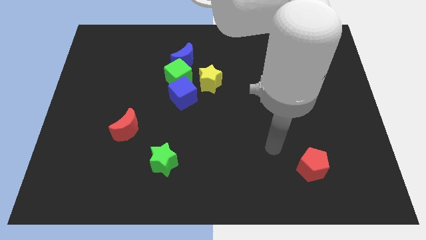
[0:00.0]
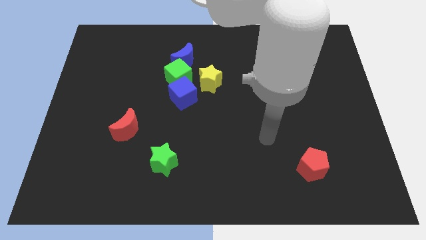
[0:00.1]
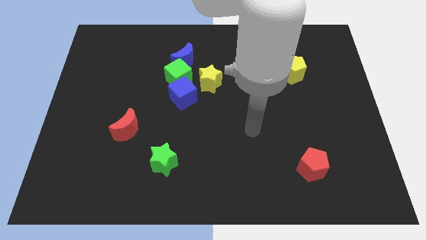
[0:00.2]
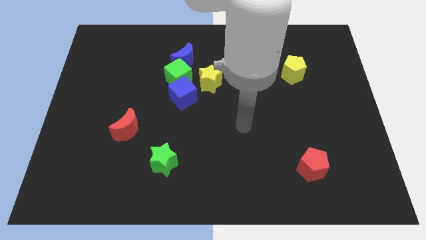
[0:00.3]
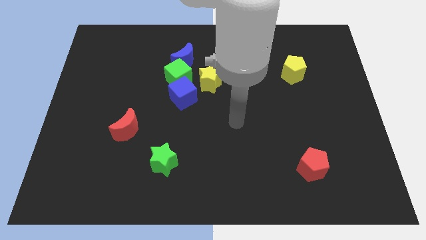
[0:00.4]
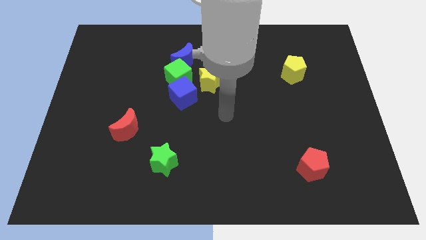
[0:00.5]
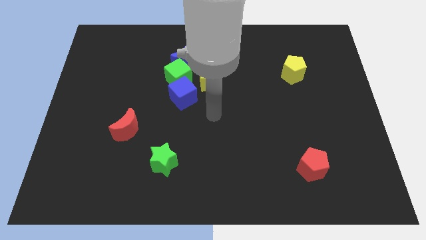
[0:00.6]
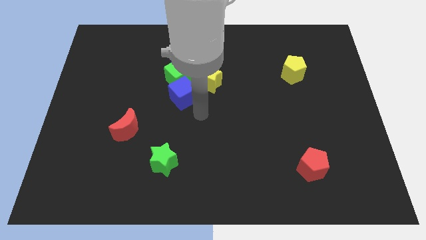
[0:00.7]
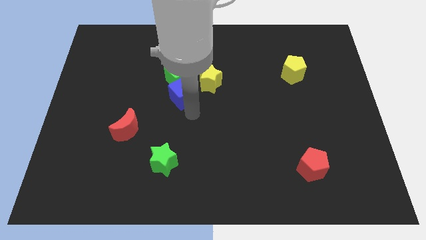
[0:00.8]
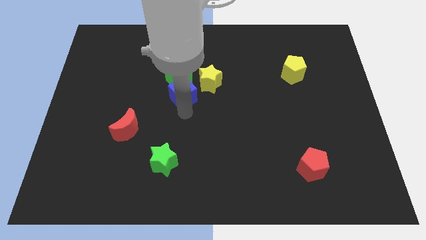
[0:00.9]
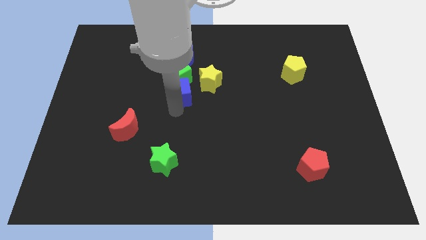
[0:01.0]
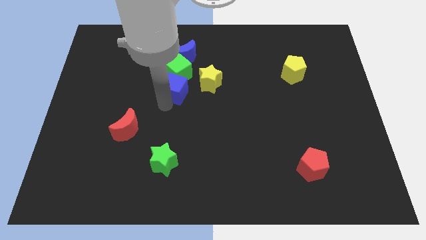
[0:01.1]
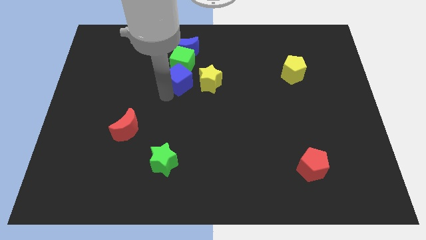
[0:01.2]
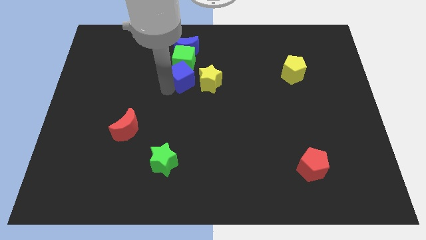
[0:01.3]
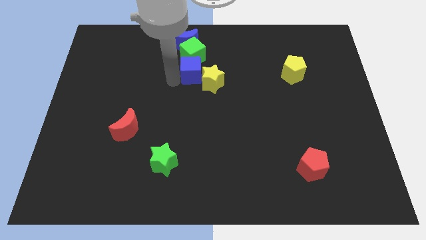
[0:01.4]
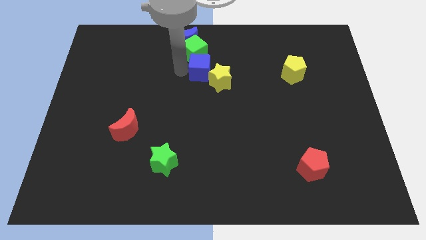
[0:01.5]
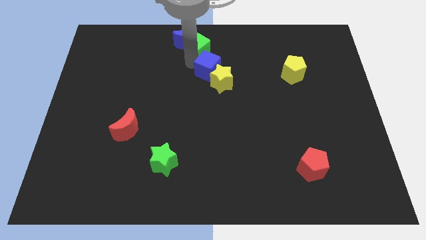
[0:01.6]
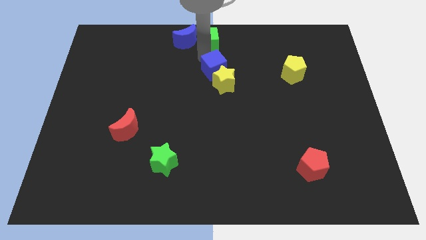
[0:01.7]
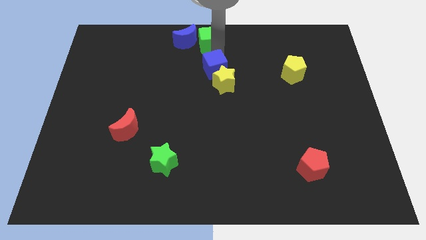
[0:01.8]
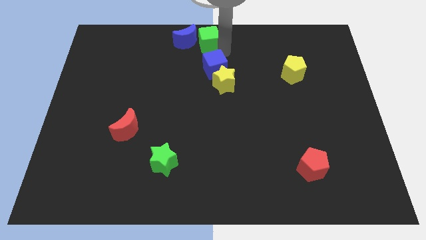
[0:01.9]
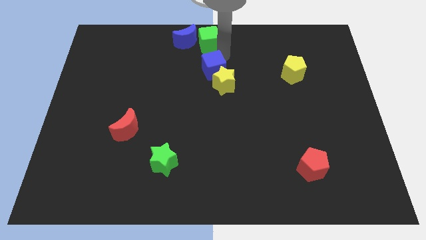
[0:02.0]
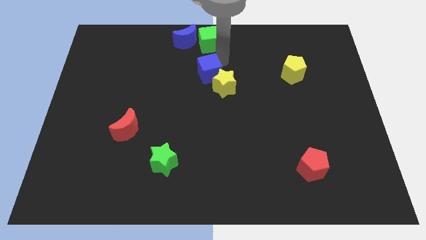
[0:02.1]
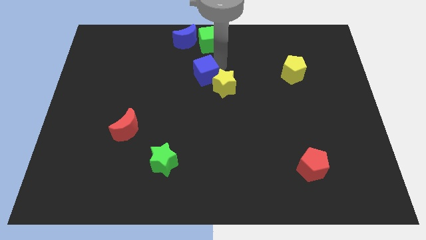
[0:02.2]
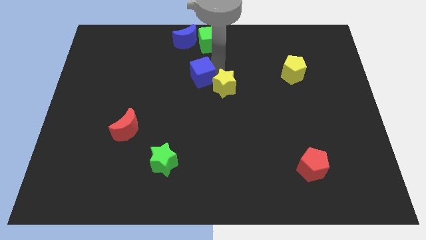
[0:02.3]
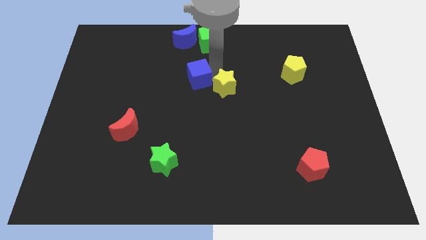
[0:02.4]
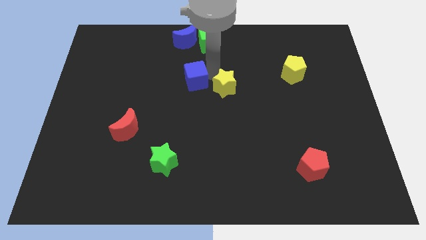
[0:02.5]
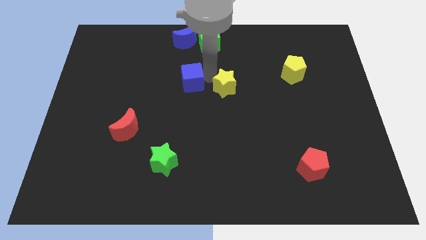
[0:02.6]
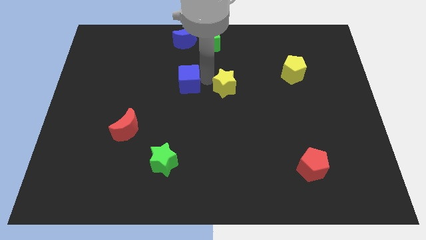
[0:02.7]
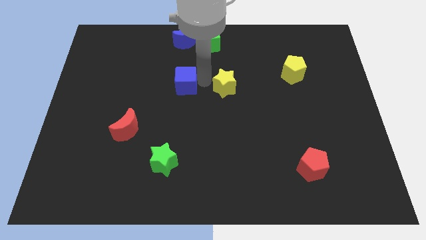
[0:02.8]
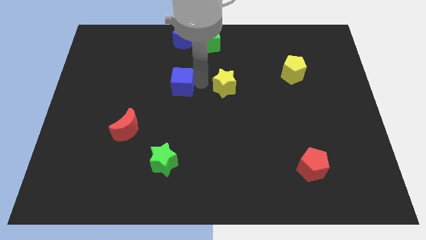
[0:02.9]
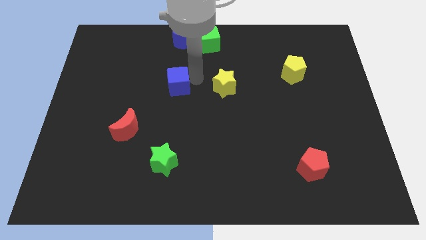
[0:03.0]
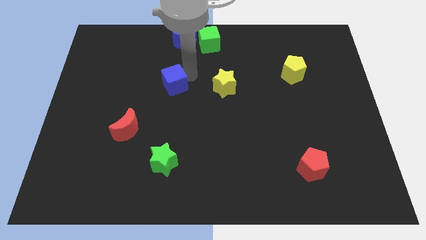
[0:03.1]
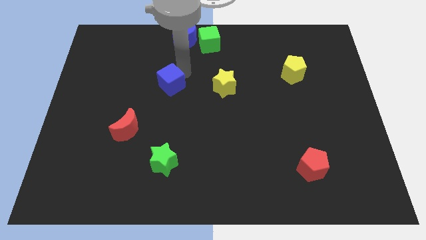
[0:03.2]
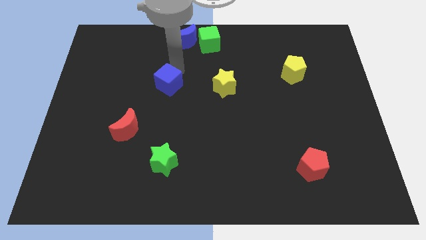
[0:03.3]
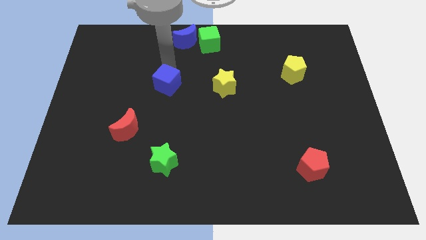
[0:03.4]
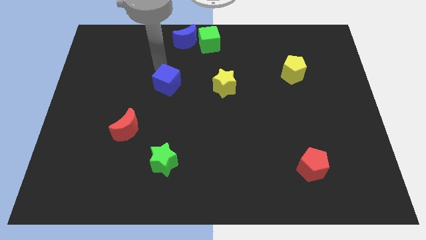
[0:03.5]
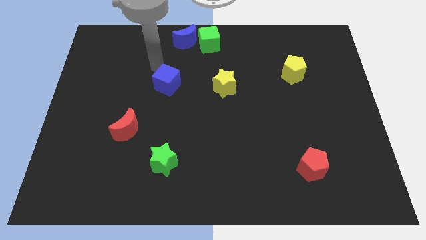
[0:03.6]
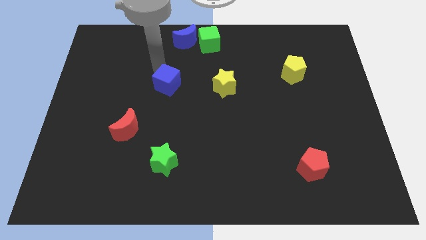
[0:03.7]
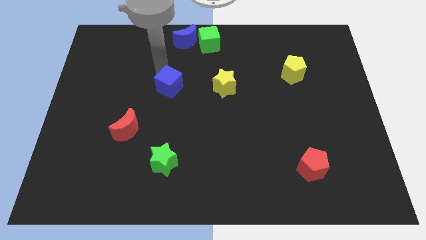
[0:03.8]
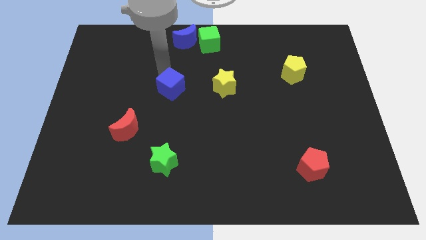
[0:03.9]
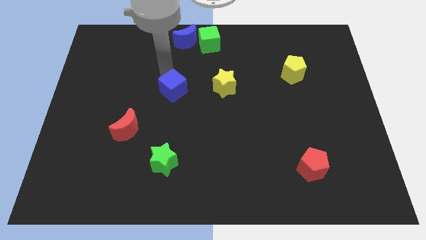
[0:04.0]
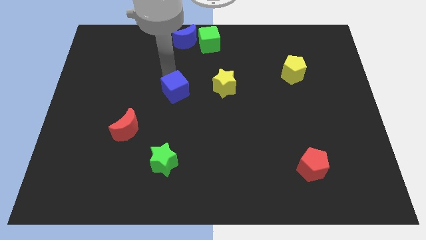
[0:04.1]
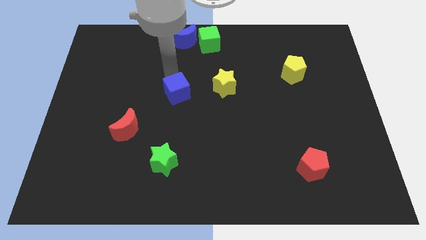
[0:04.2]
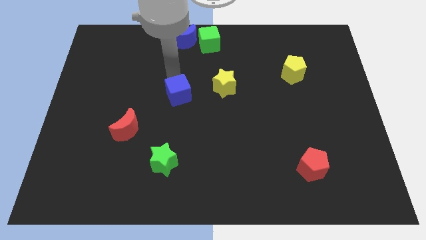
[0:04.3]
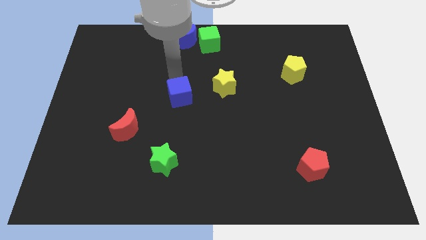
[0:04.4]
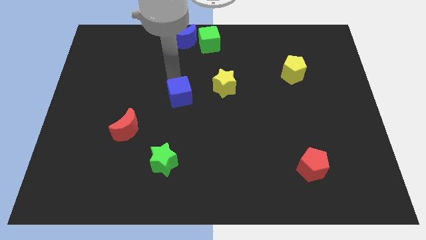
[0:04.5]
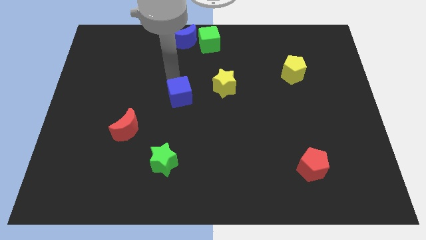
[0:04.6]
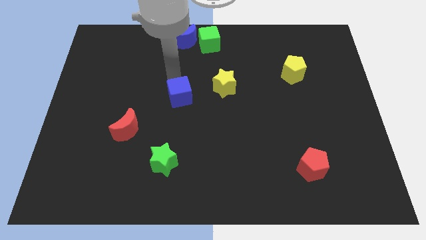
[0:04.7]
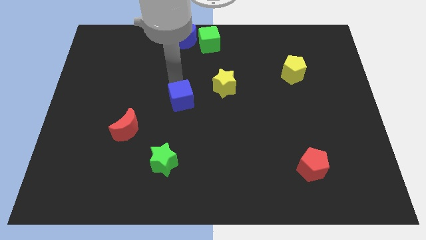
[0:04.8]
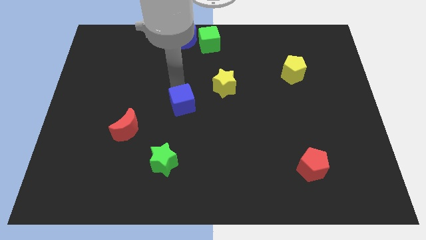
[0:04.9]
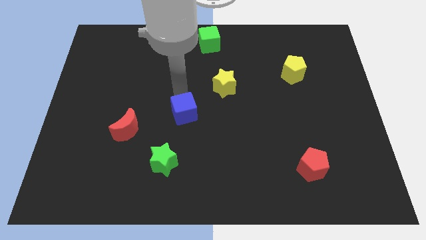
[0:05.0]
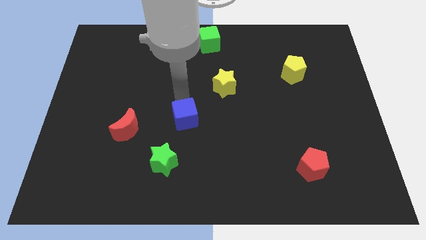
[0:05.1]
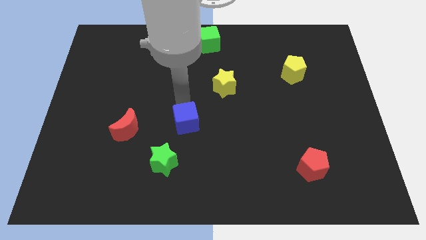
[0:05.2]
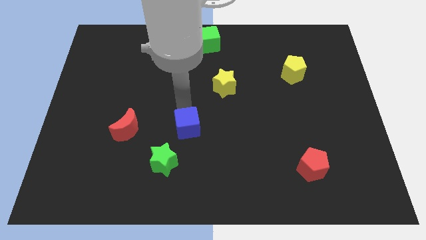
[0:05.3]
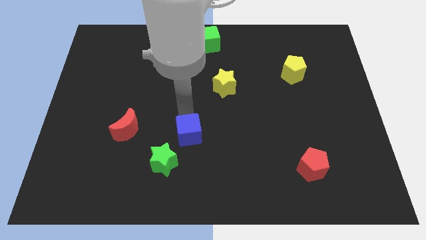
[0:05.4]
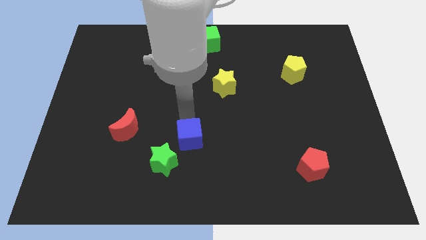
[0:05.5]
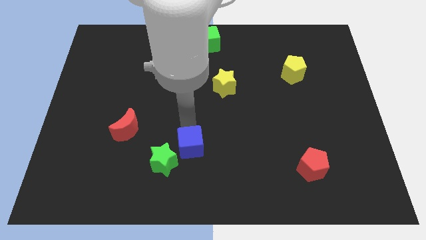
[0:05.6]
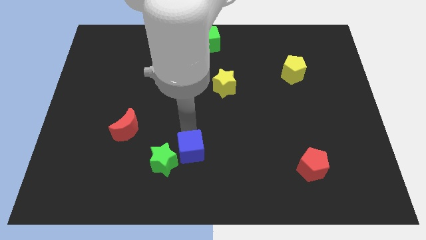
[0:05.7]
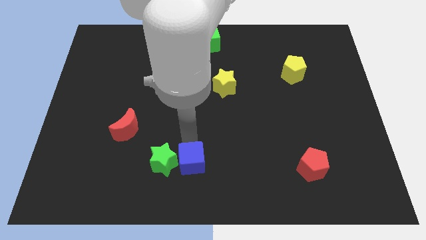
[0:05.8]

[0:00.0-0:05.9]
move the blue cube to the bottom

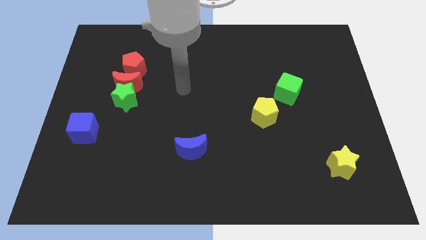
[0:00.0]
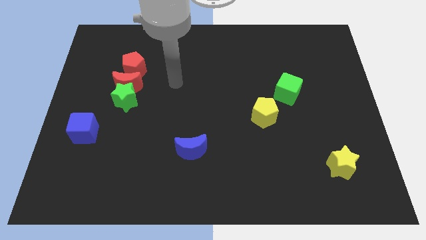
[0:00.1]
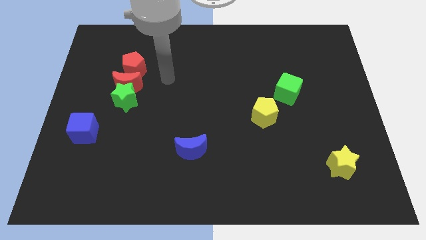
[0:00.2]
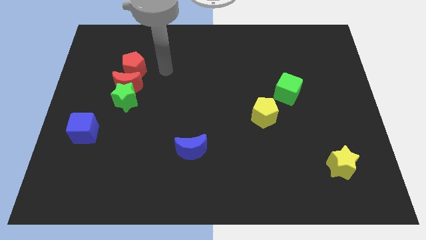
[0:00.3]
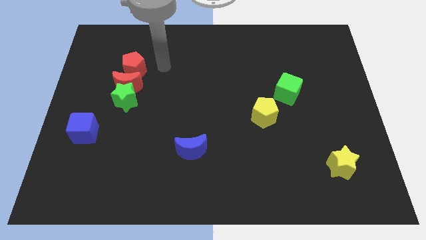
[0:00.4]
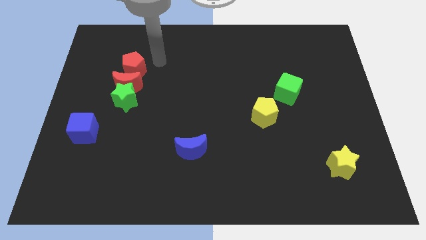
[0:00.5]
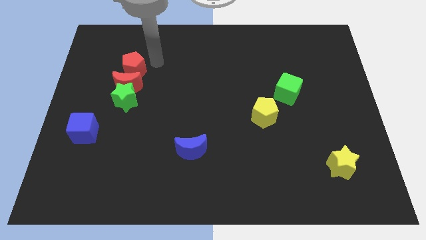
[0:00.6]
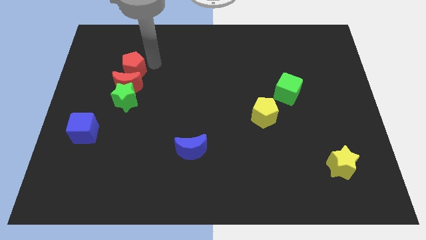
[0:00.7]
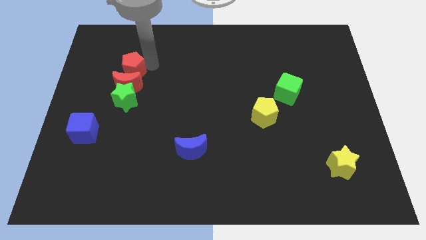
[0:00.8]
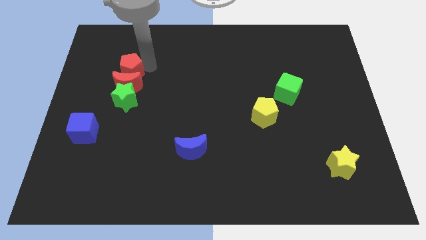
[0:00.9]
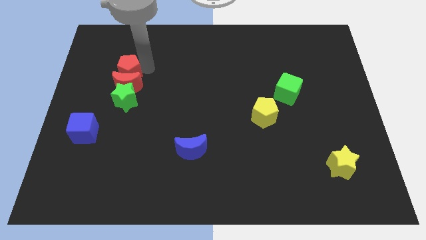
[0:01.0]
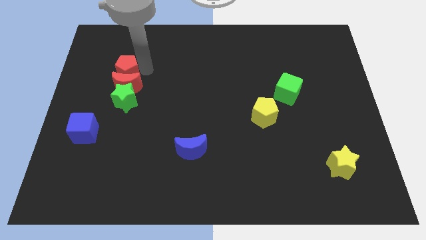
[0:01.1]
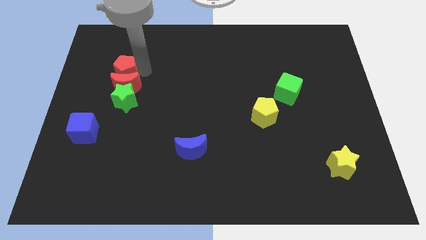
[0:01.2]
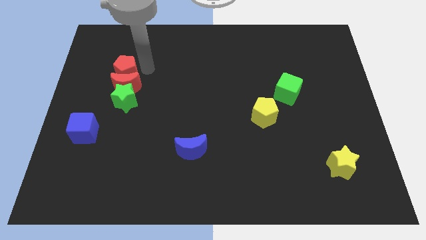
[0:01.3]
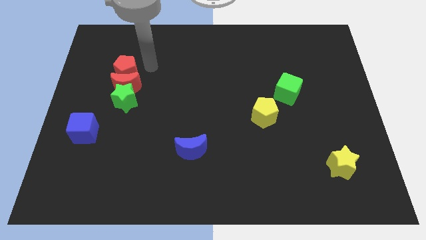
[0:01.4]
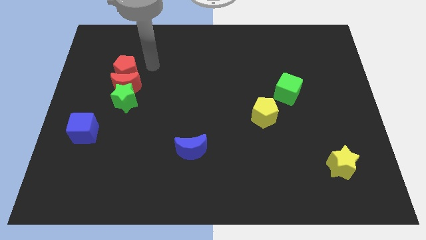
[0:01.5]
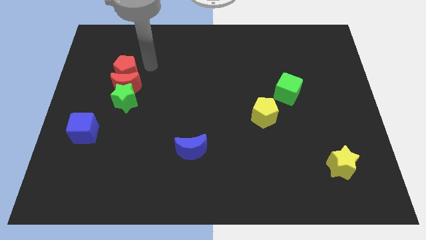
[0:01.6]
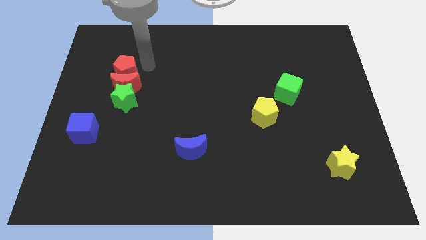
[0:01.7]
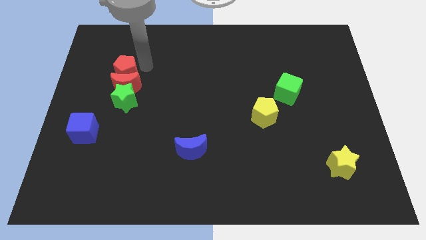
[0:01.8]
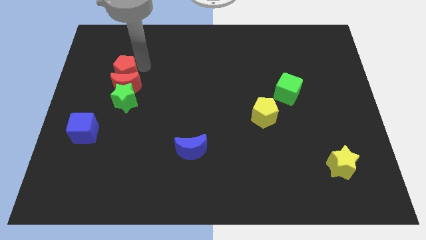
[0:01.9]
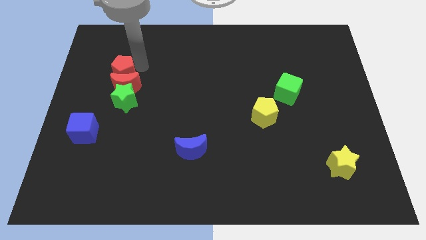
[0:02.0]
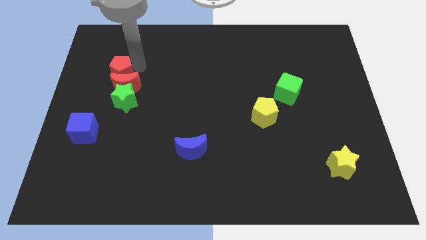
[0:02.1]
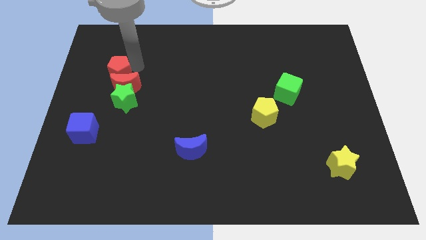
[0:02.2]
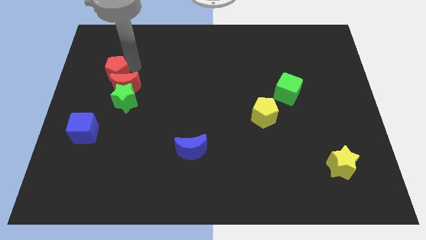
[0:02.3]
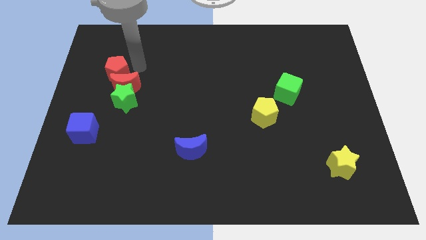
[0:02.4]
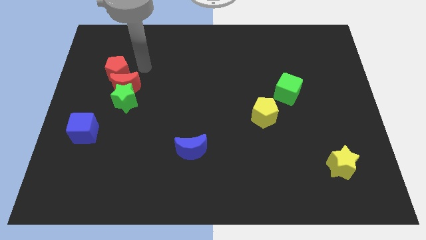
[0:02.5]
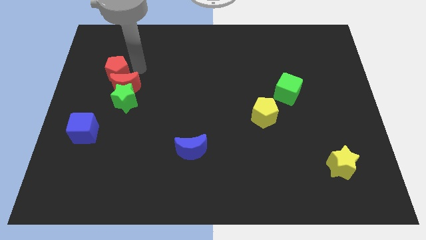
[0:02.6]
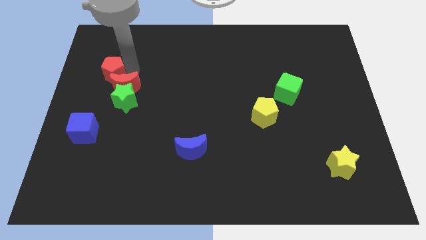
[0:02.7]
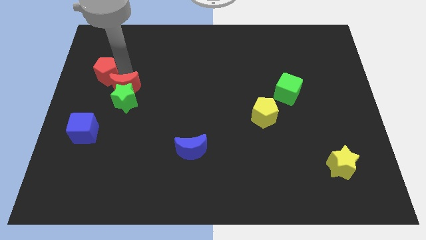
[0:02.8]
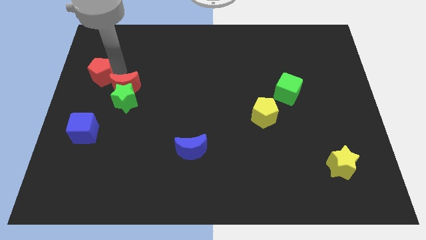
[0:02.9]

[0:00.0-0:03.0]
push the red pentagon to the left side
